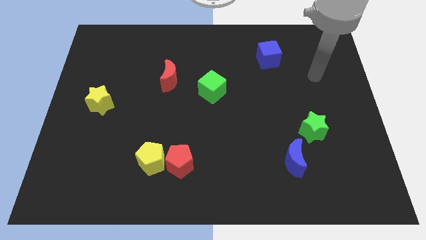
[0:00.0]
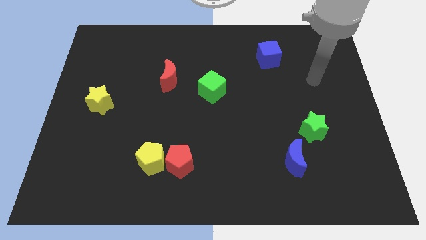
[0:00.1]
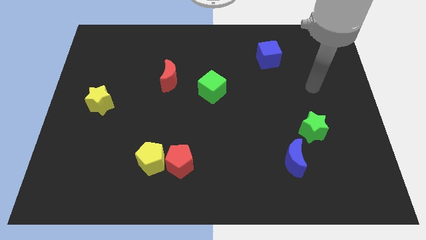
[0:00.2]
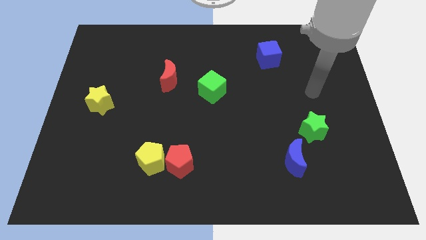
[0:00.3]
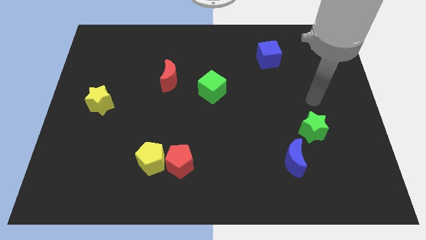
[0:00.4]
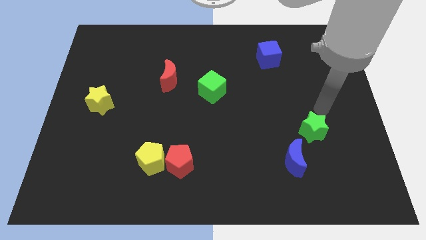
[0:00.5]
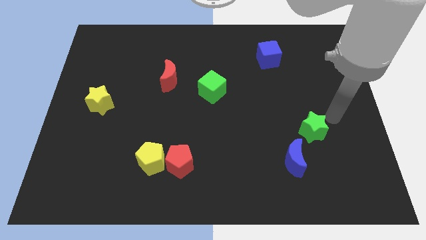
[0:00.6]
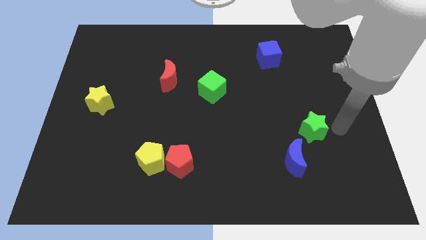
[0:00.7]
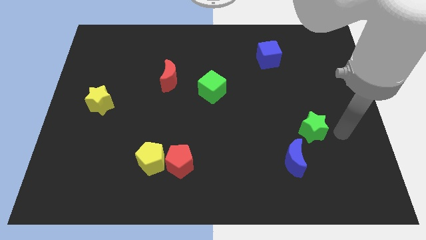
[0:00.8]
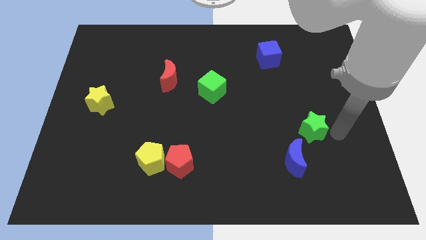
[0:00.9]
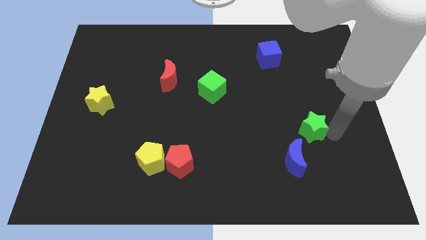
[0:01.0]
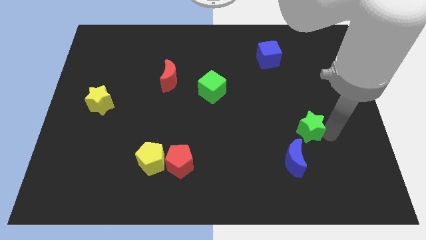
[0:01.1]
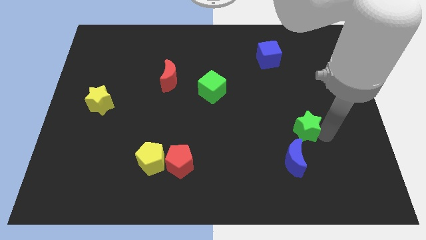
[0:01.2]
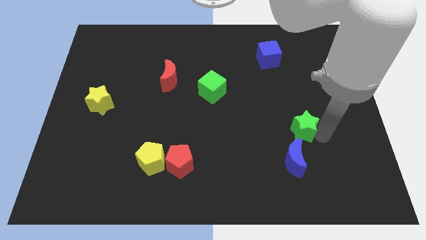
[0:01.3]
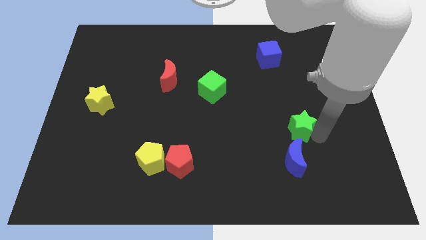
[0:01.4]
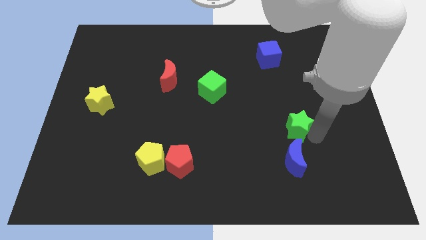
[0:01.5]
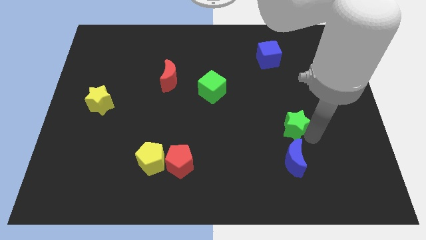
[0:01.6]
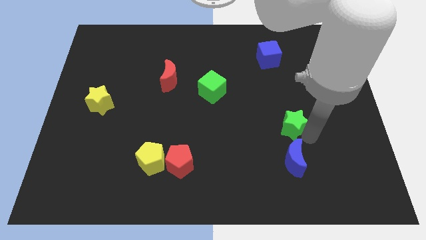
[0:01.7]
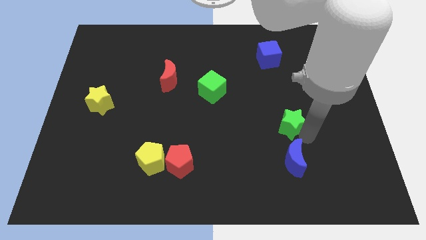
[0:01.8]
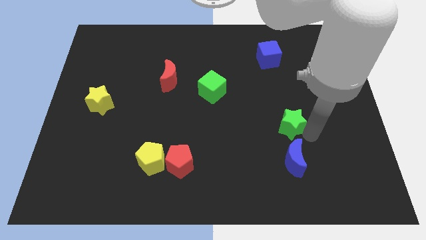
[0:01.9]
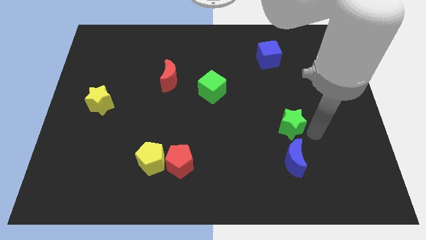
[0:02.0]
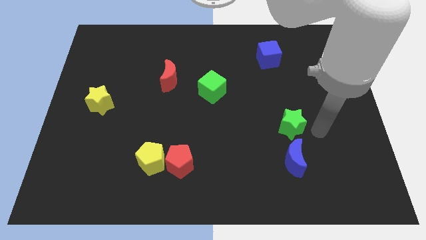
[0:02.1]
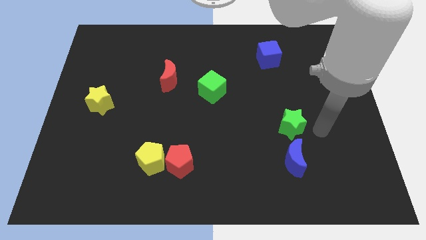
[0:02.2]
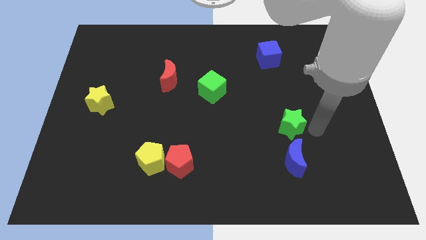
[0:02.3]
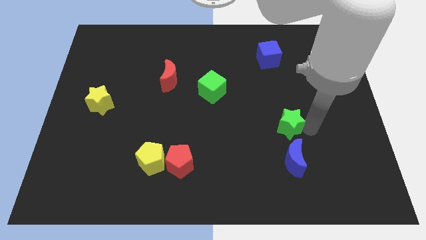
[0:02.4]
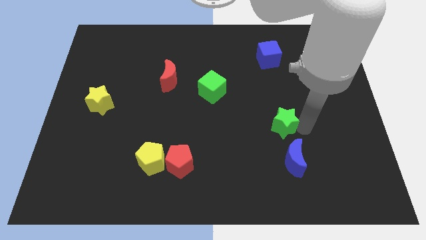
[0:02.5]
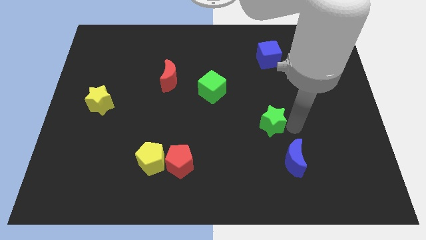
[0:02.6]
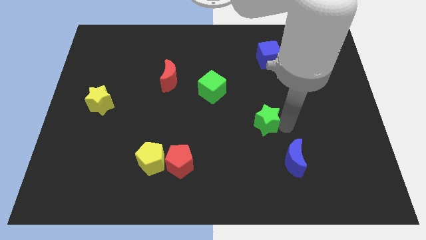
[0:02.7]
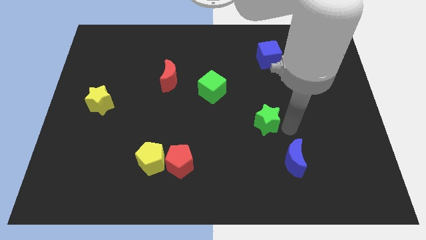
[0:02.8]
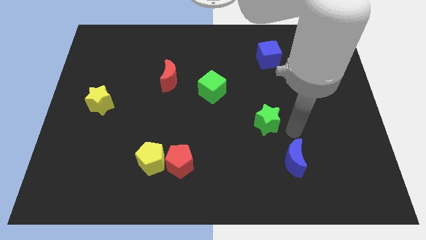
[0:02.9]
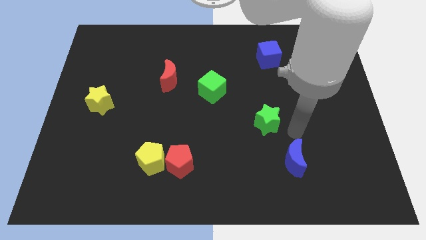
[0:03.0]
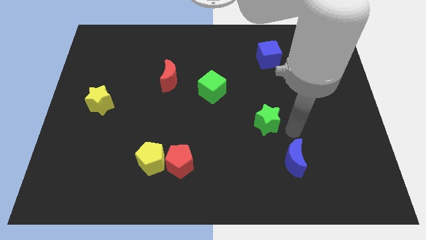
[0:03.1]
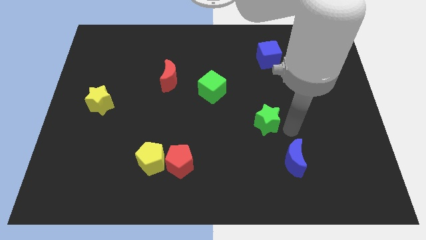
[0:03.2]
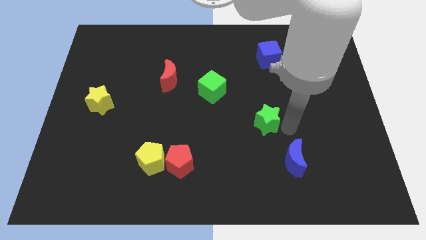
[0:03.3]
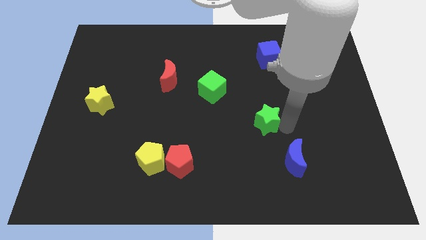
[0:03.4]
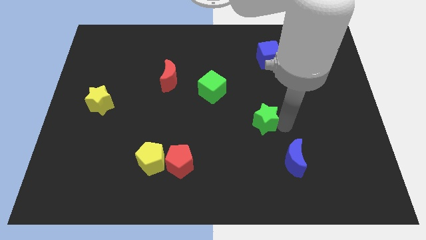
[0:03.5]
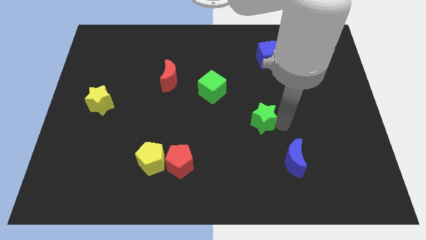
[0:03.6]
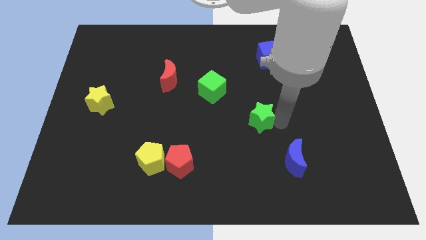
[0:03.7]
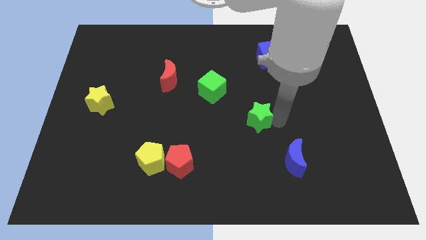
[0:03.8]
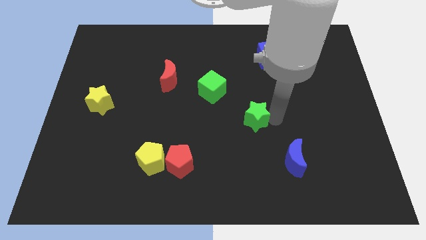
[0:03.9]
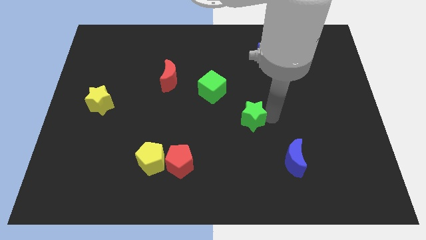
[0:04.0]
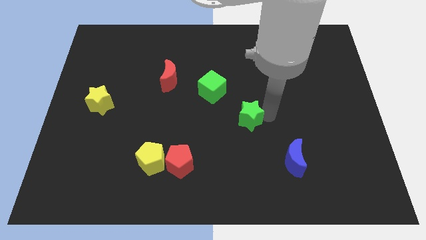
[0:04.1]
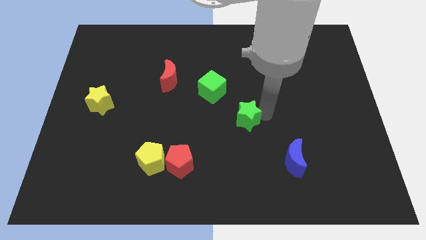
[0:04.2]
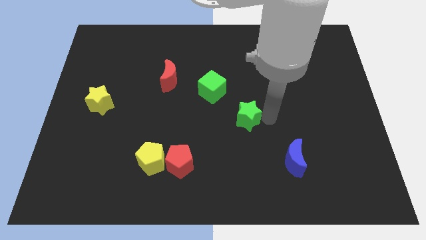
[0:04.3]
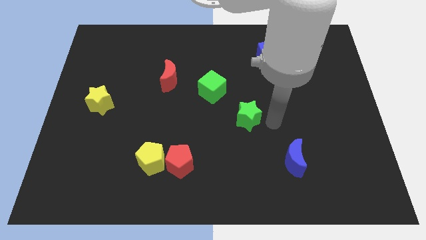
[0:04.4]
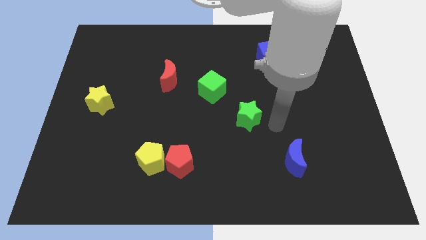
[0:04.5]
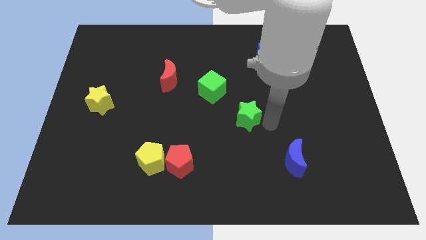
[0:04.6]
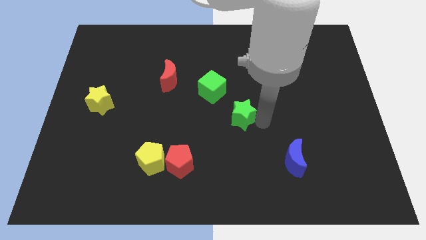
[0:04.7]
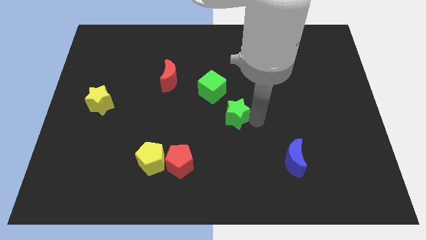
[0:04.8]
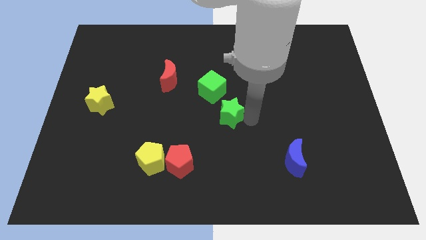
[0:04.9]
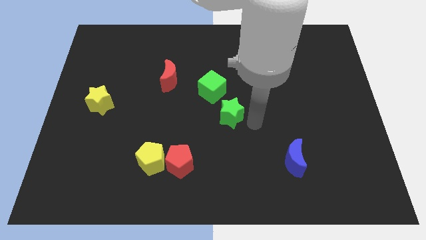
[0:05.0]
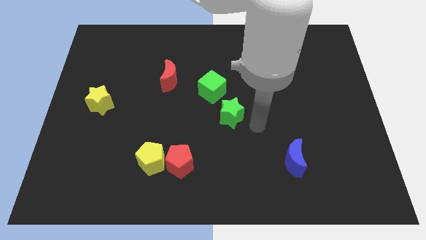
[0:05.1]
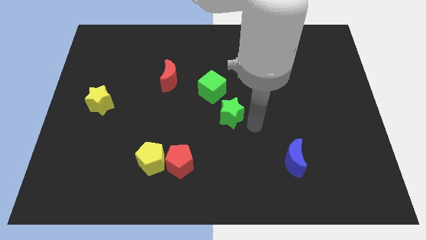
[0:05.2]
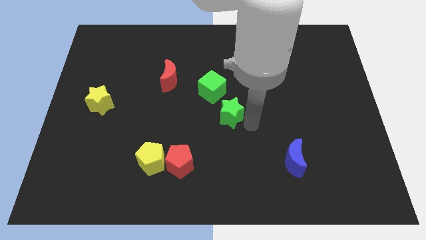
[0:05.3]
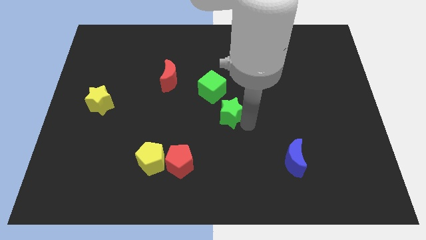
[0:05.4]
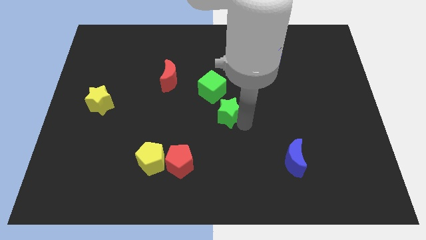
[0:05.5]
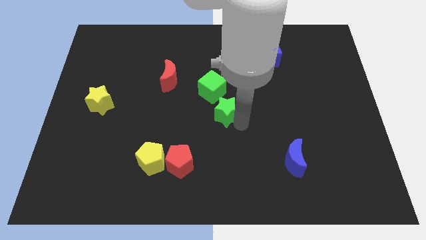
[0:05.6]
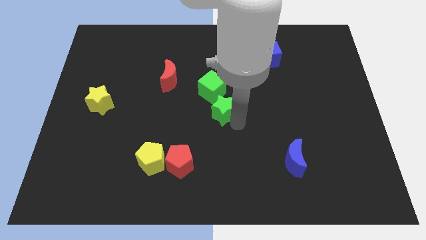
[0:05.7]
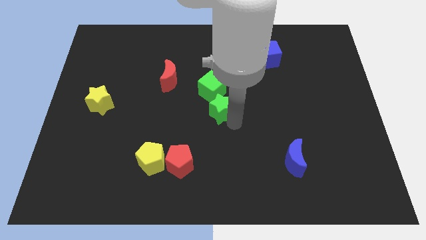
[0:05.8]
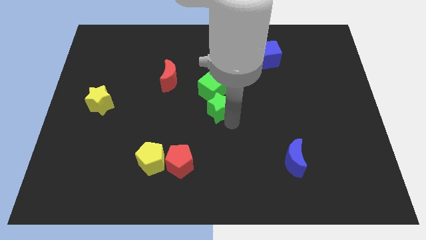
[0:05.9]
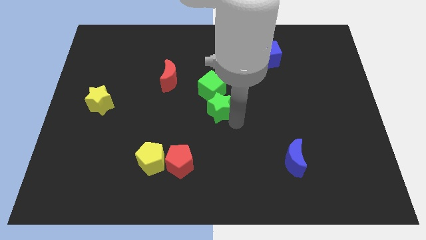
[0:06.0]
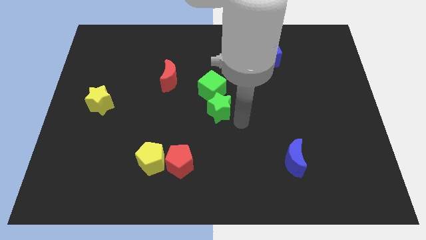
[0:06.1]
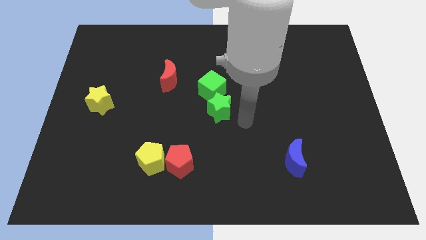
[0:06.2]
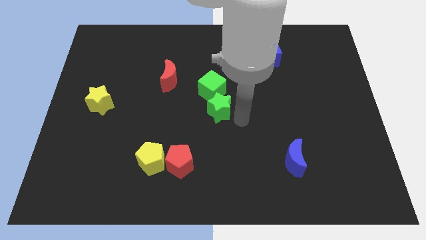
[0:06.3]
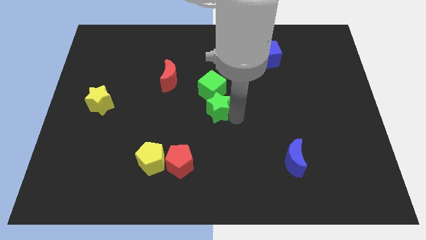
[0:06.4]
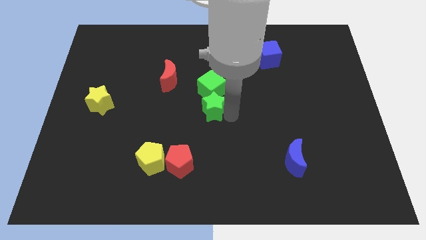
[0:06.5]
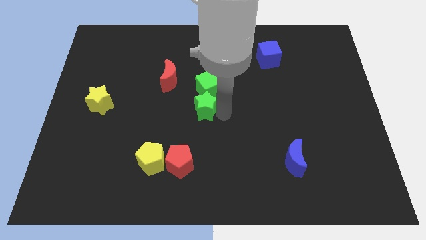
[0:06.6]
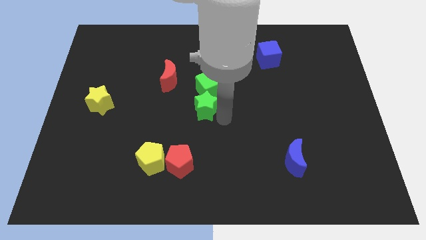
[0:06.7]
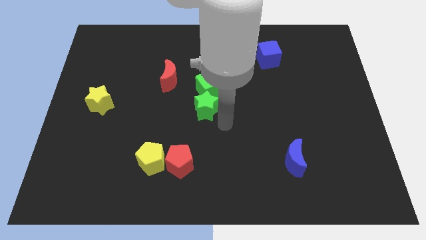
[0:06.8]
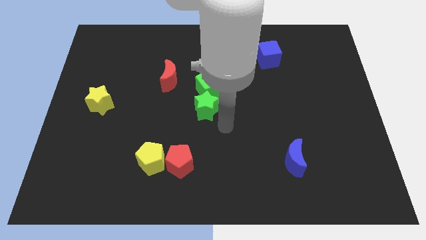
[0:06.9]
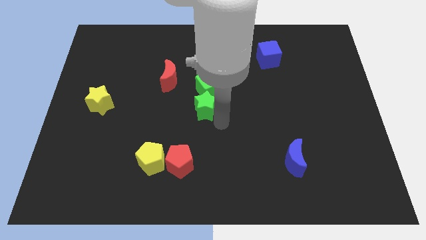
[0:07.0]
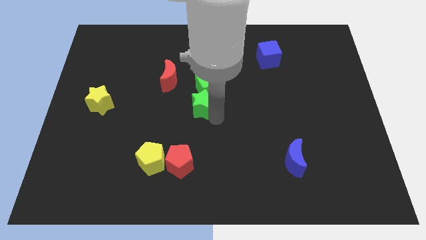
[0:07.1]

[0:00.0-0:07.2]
slide the green star to the bottom right side of the red moon
